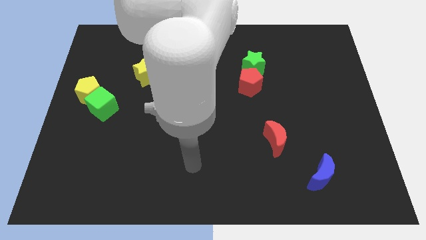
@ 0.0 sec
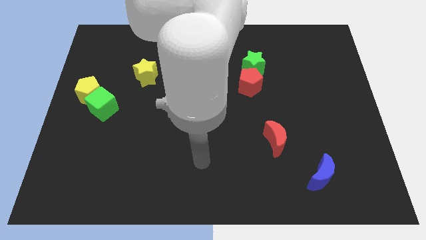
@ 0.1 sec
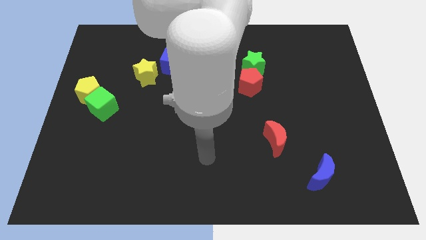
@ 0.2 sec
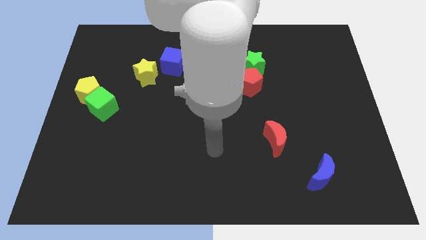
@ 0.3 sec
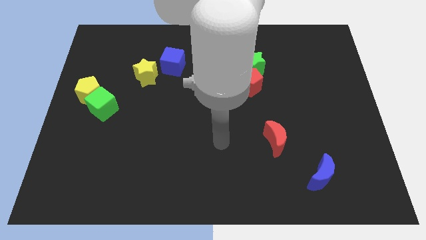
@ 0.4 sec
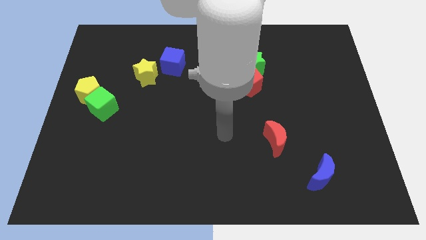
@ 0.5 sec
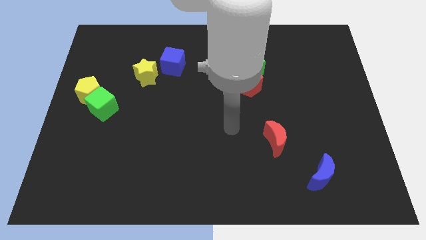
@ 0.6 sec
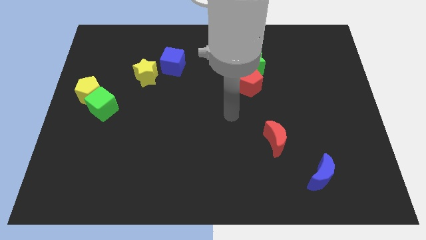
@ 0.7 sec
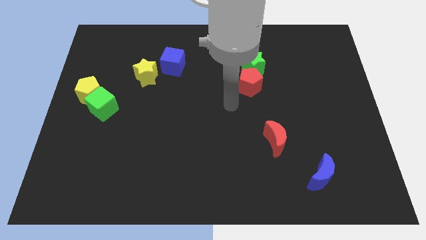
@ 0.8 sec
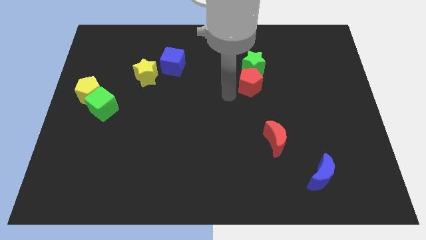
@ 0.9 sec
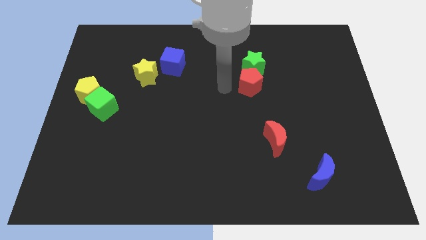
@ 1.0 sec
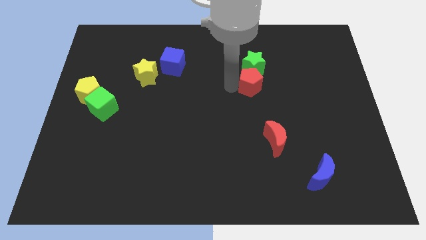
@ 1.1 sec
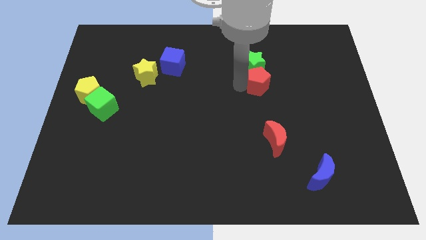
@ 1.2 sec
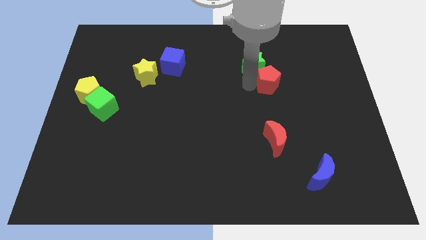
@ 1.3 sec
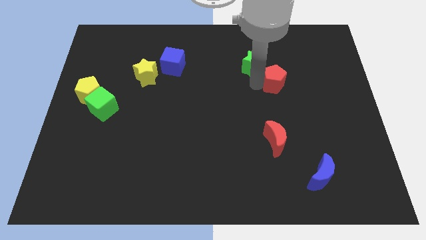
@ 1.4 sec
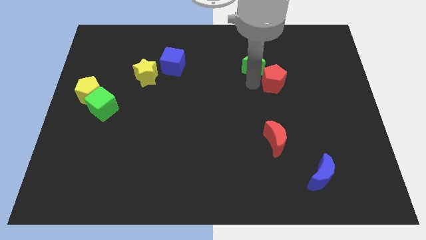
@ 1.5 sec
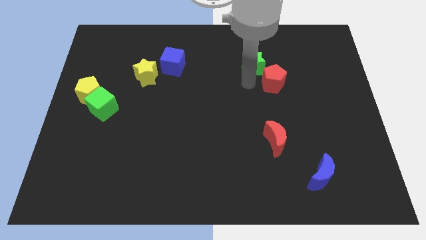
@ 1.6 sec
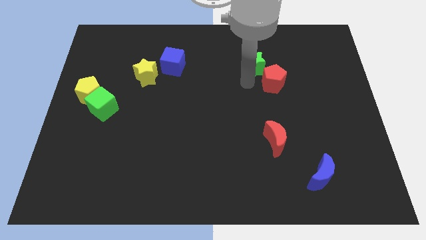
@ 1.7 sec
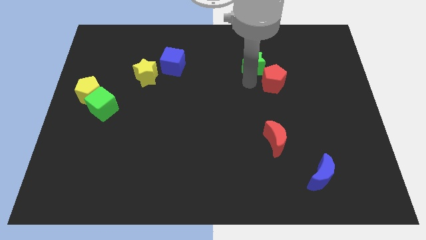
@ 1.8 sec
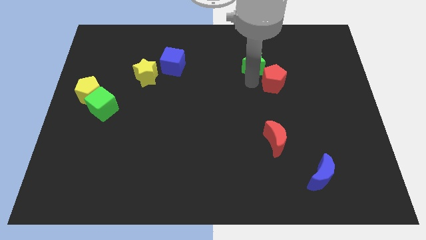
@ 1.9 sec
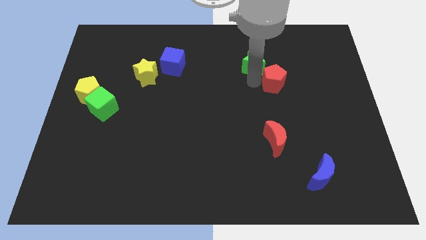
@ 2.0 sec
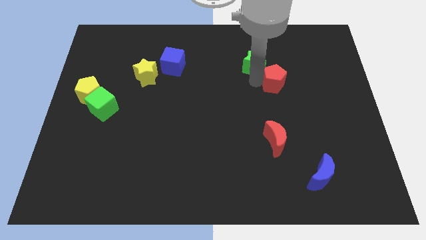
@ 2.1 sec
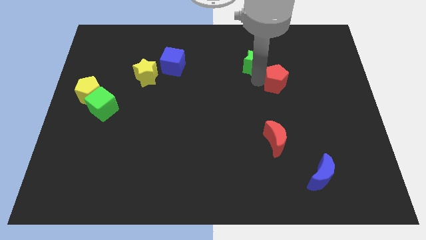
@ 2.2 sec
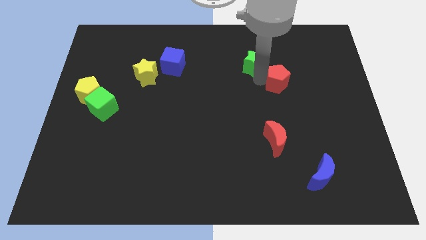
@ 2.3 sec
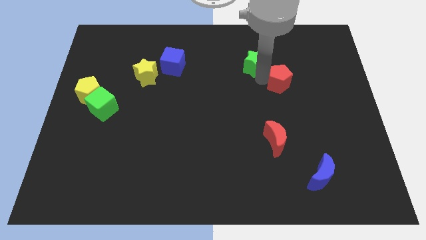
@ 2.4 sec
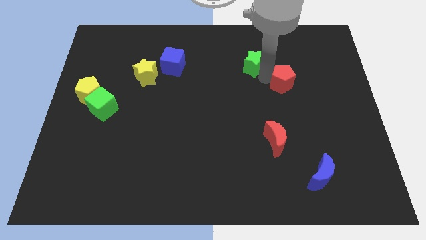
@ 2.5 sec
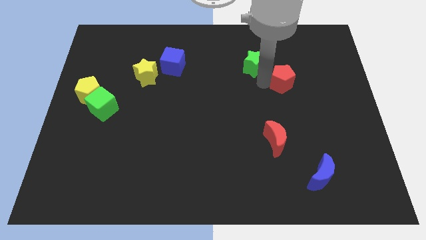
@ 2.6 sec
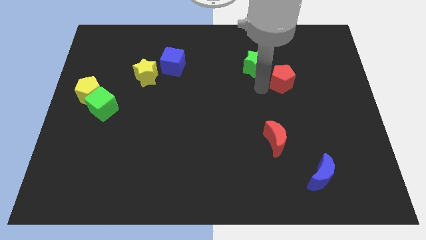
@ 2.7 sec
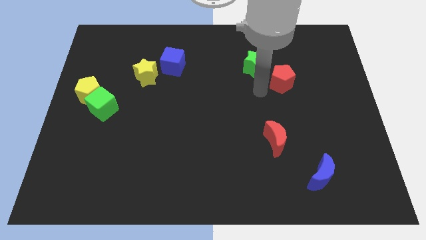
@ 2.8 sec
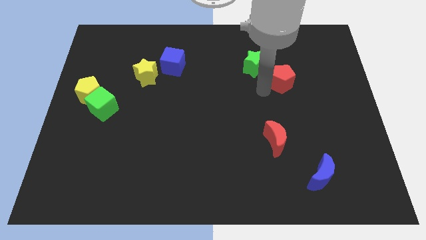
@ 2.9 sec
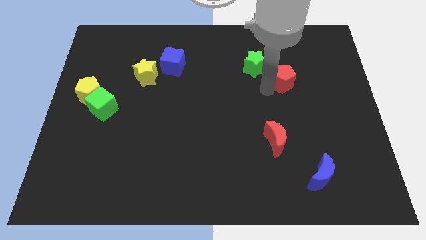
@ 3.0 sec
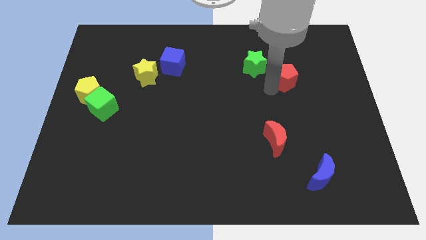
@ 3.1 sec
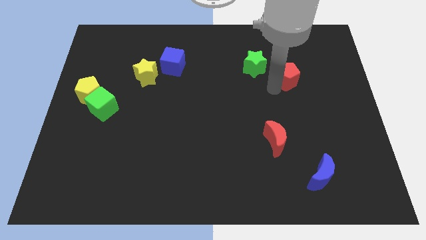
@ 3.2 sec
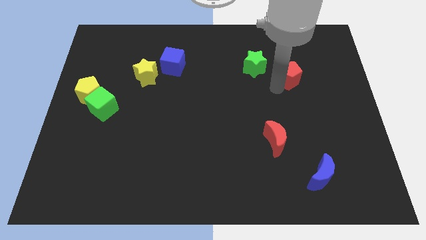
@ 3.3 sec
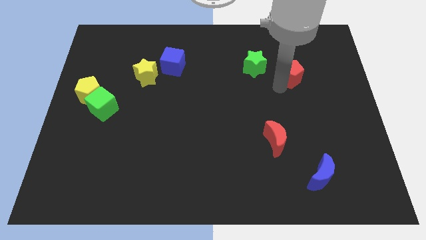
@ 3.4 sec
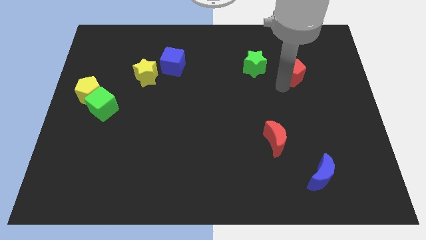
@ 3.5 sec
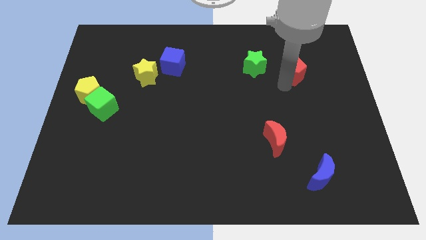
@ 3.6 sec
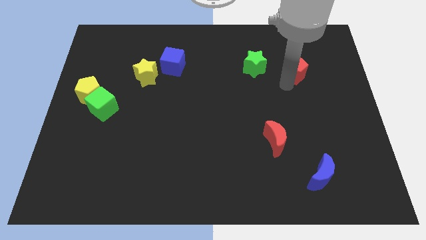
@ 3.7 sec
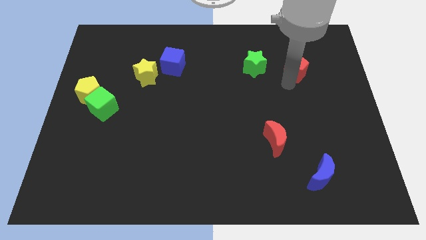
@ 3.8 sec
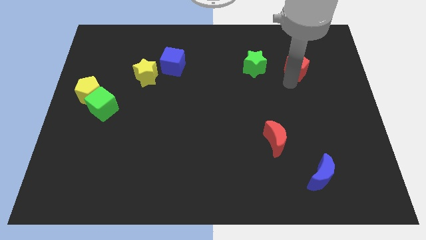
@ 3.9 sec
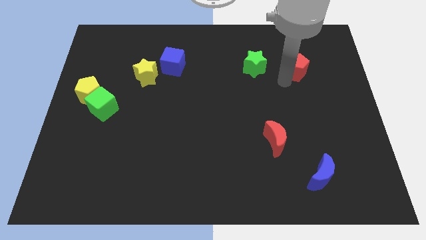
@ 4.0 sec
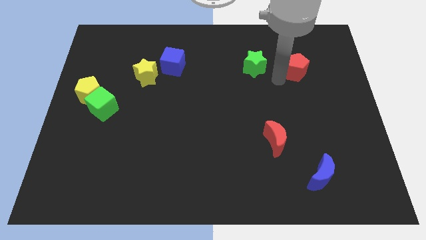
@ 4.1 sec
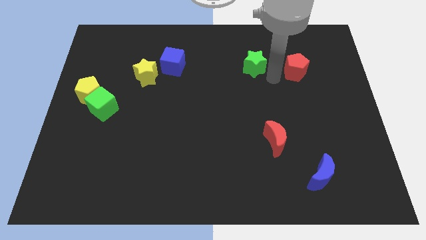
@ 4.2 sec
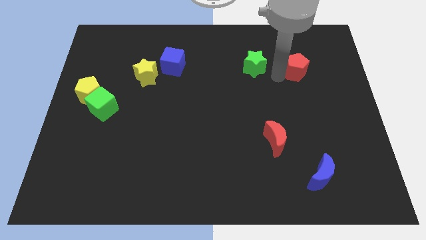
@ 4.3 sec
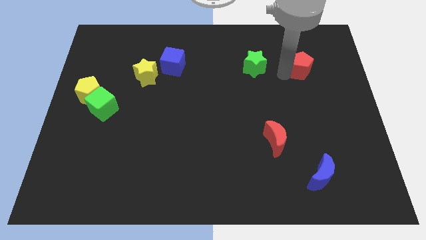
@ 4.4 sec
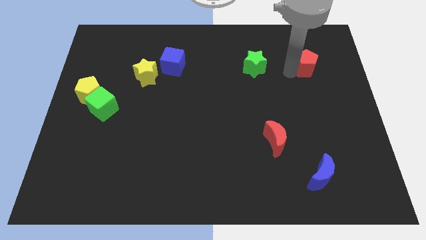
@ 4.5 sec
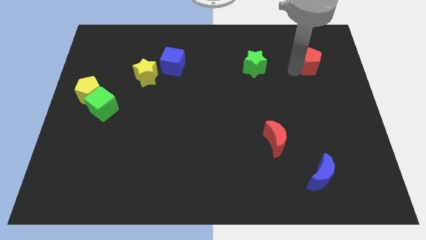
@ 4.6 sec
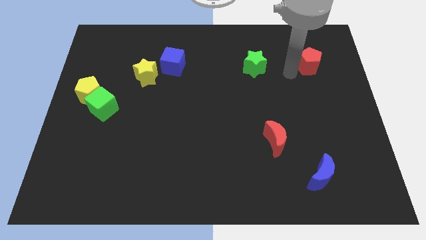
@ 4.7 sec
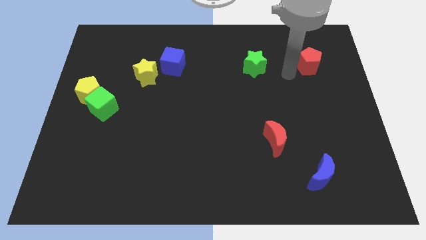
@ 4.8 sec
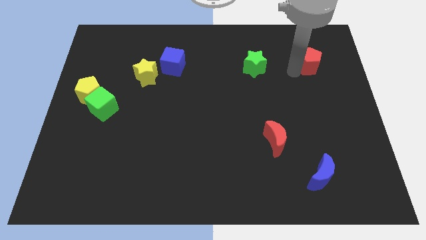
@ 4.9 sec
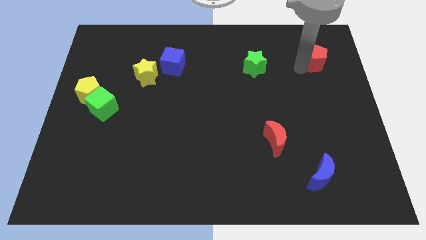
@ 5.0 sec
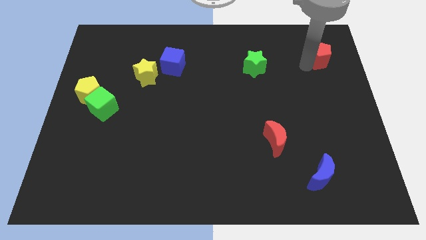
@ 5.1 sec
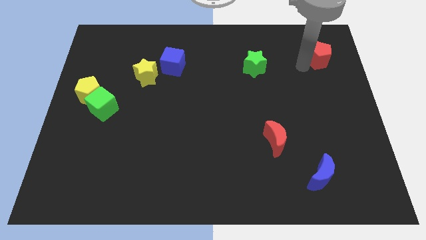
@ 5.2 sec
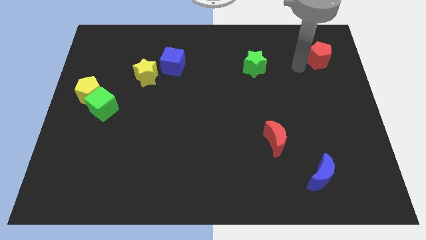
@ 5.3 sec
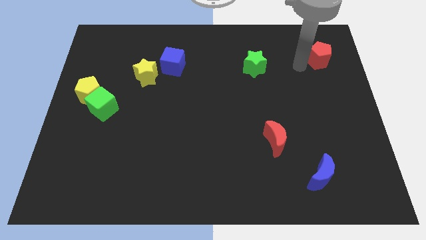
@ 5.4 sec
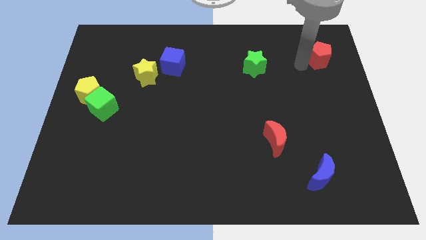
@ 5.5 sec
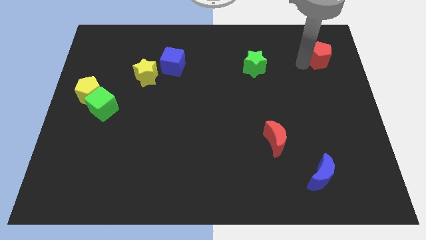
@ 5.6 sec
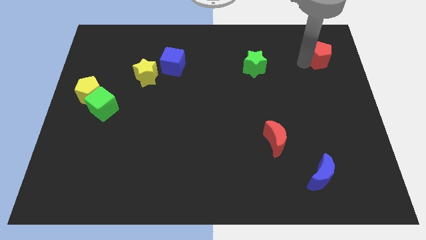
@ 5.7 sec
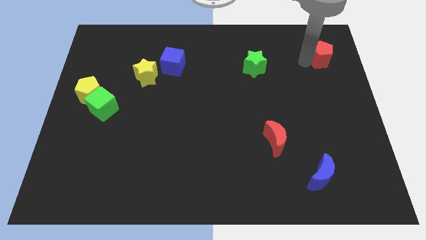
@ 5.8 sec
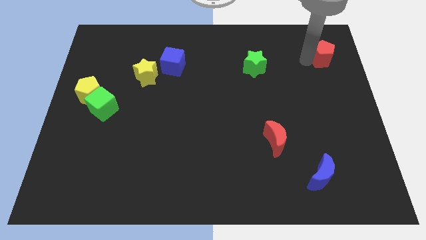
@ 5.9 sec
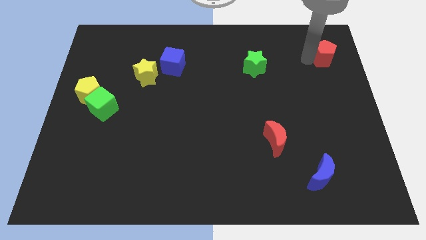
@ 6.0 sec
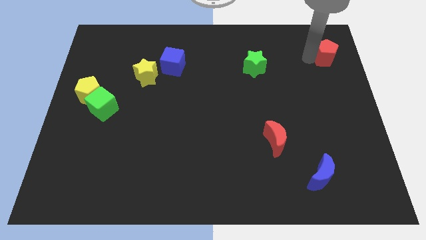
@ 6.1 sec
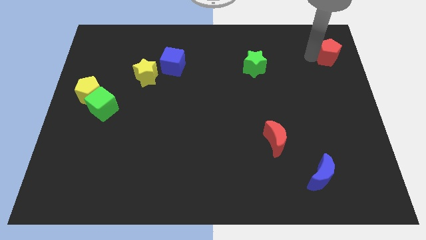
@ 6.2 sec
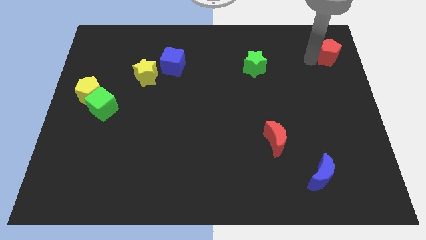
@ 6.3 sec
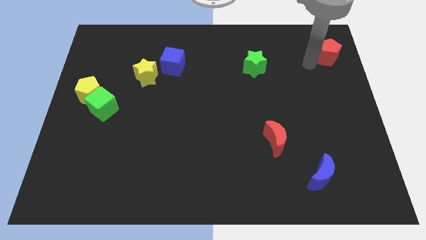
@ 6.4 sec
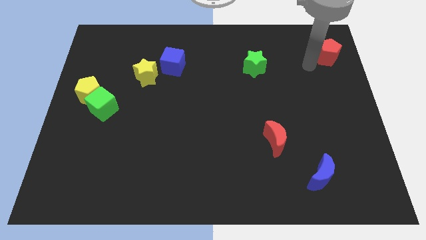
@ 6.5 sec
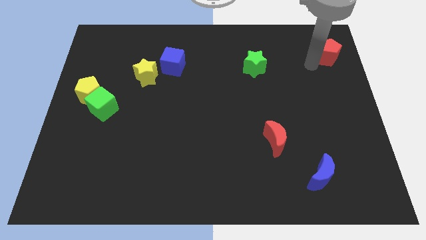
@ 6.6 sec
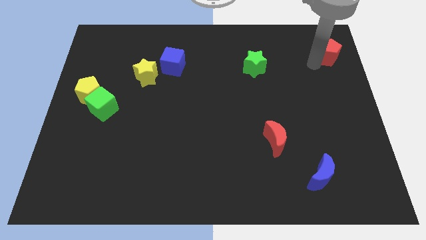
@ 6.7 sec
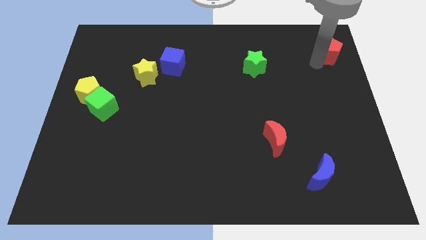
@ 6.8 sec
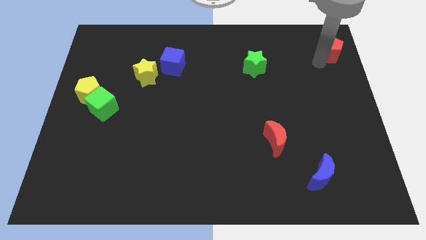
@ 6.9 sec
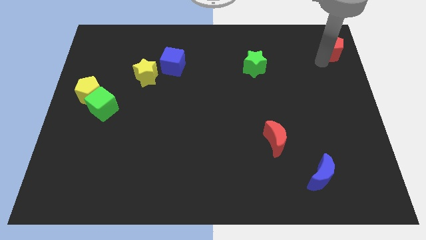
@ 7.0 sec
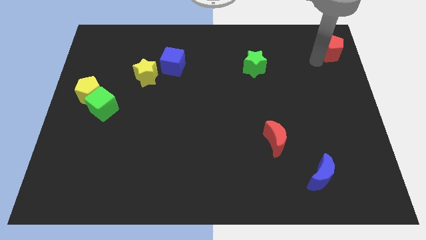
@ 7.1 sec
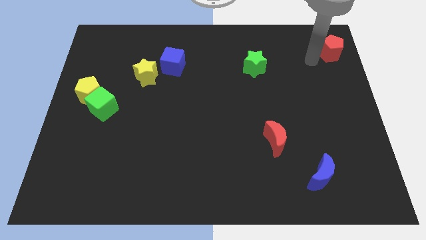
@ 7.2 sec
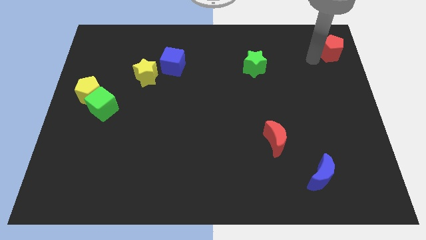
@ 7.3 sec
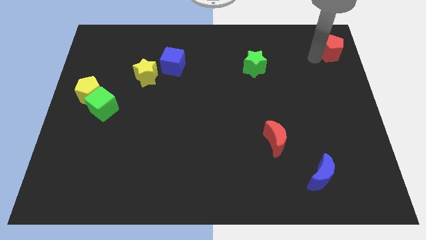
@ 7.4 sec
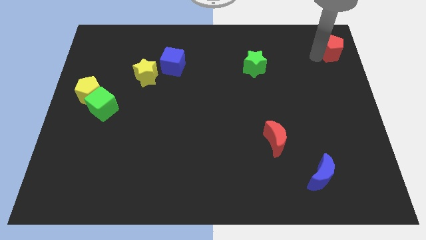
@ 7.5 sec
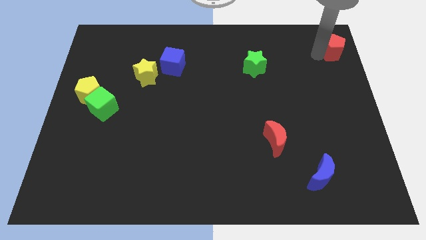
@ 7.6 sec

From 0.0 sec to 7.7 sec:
push the red pentagon to the upper right corner
